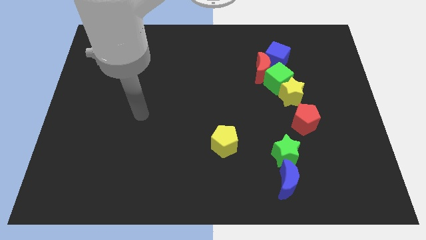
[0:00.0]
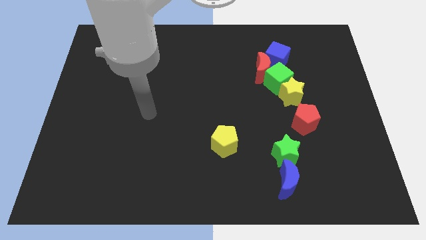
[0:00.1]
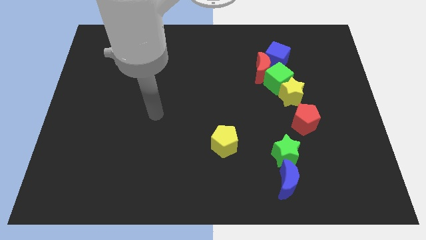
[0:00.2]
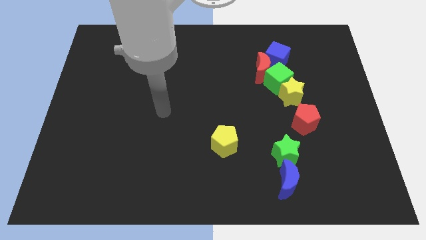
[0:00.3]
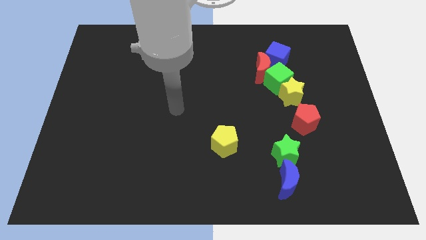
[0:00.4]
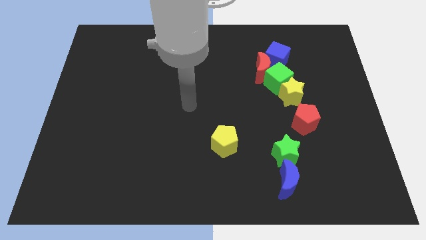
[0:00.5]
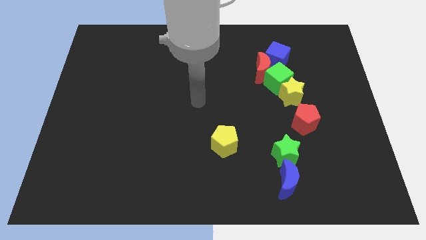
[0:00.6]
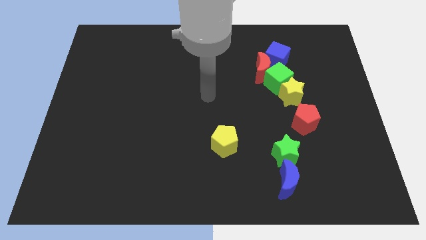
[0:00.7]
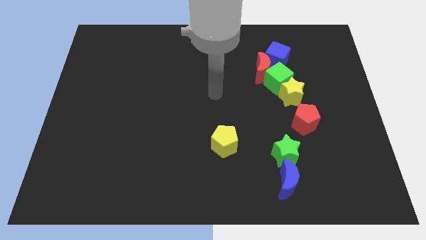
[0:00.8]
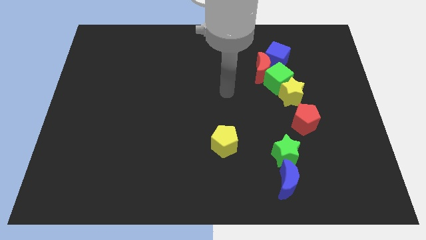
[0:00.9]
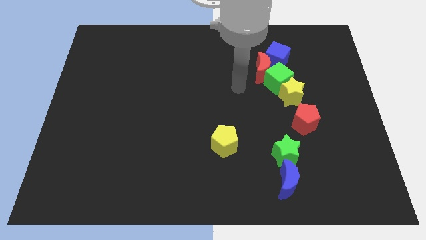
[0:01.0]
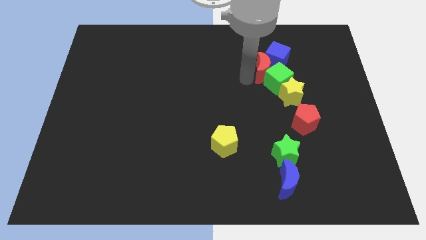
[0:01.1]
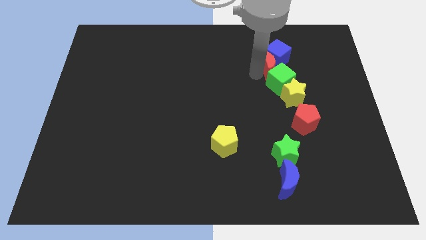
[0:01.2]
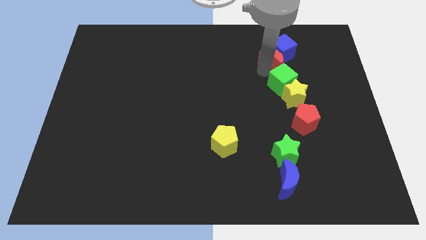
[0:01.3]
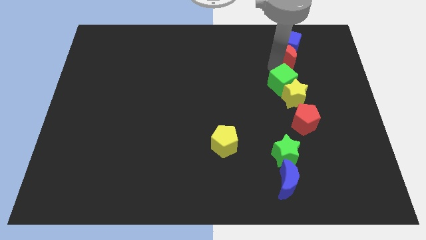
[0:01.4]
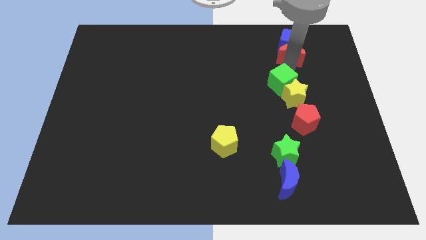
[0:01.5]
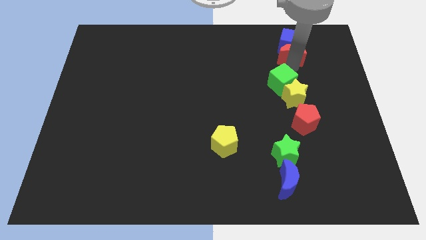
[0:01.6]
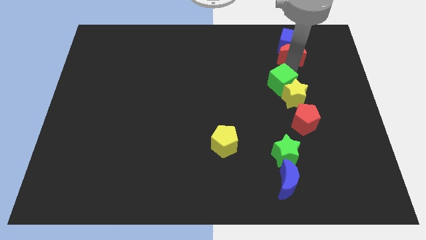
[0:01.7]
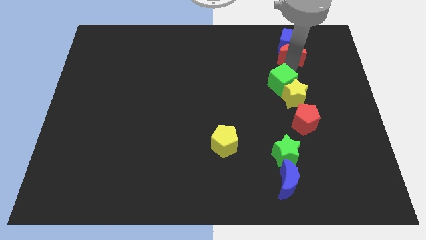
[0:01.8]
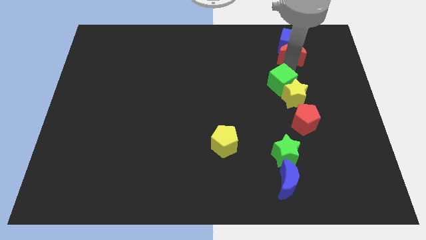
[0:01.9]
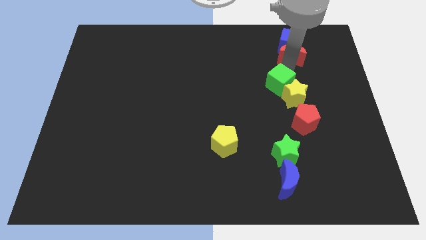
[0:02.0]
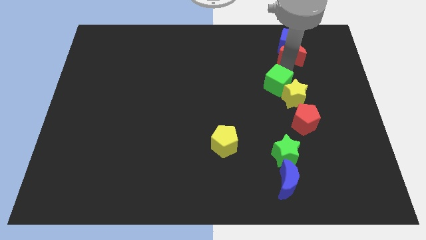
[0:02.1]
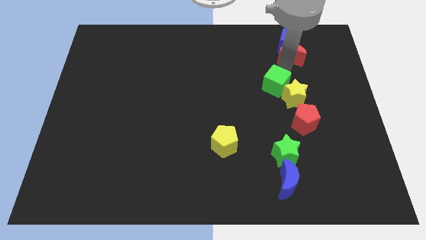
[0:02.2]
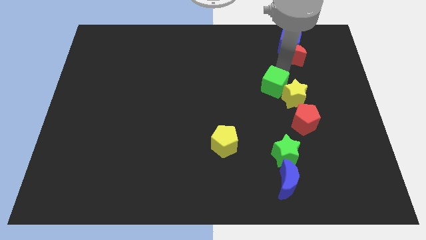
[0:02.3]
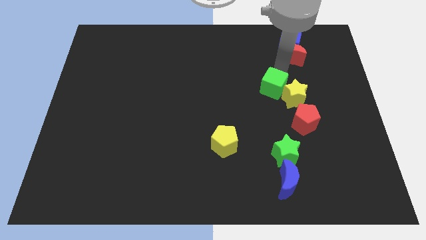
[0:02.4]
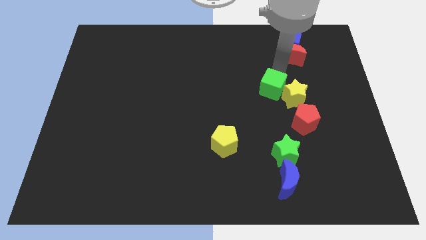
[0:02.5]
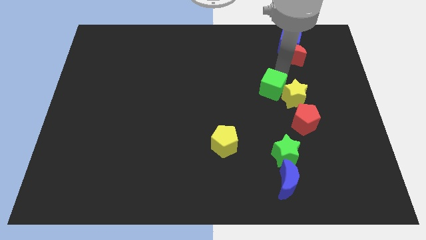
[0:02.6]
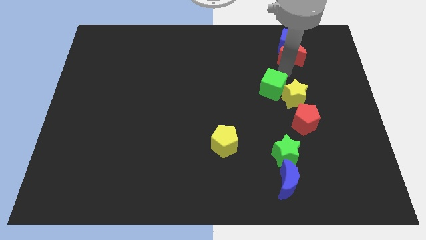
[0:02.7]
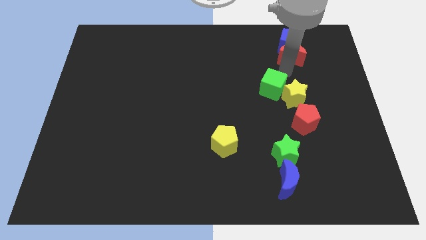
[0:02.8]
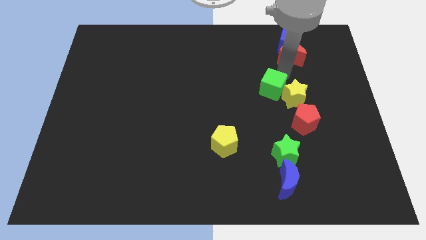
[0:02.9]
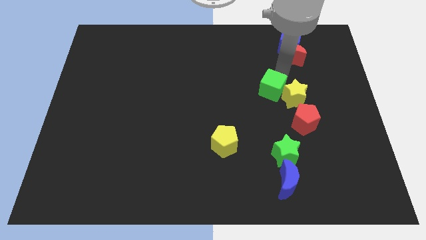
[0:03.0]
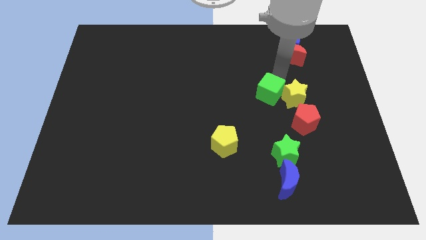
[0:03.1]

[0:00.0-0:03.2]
separate the green cube from the red moon, yellow star, and blue cube

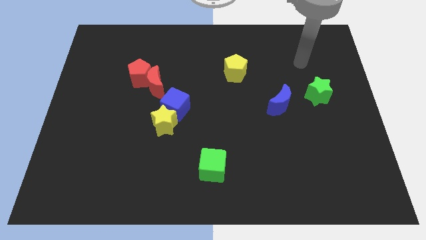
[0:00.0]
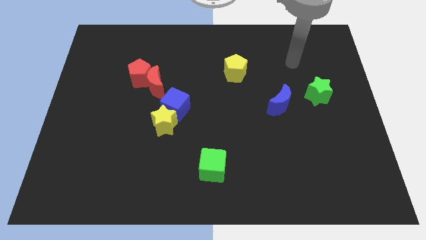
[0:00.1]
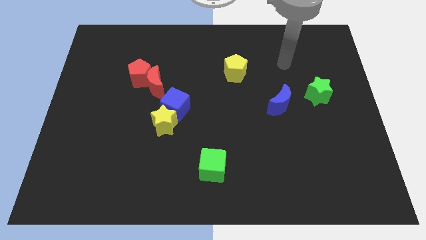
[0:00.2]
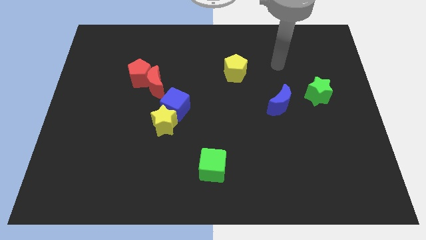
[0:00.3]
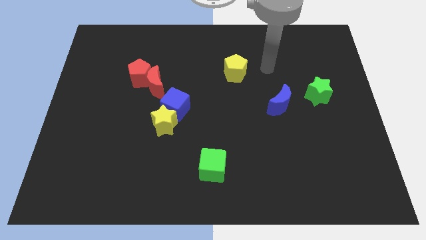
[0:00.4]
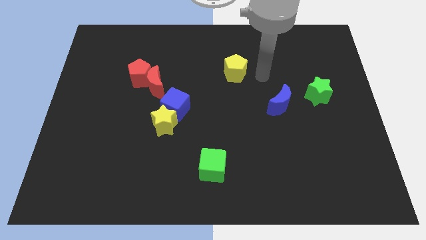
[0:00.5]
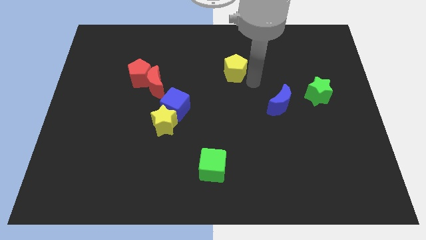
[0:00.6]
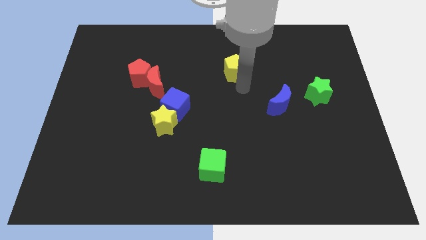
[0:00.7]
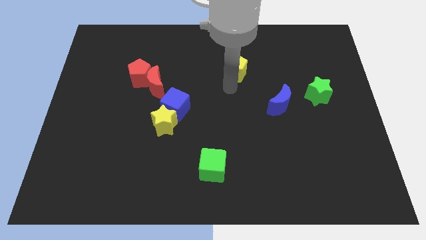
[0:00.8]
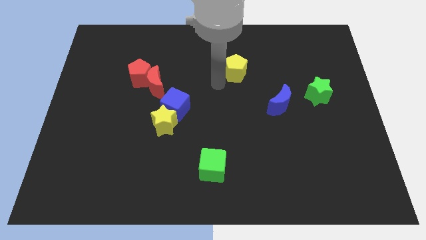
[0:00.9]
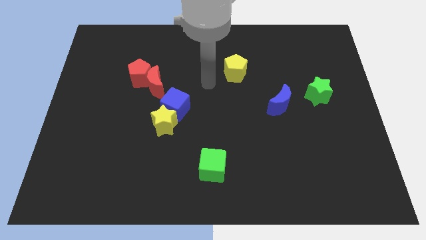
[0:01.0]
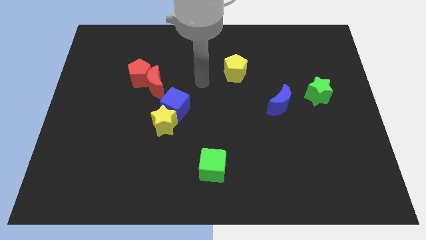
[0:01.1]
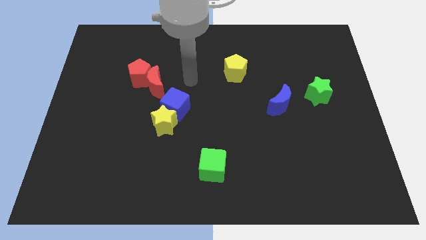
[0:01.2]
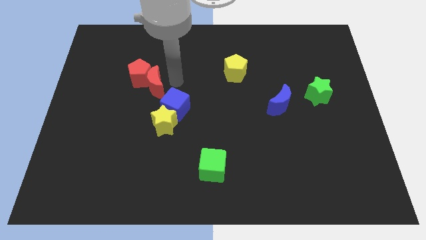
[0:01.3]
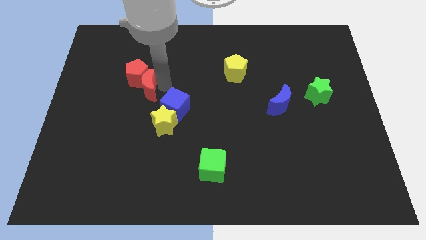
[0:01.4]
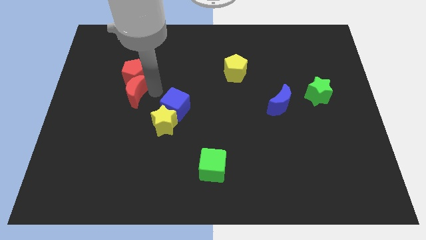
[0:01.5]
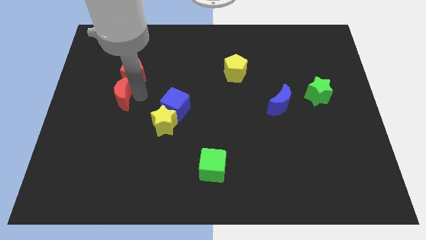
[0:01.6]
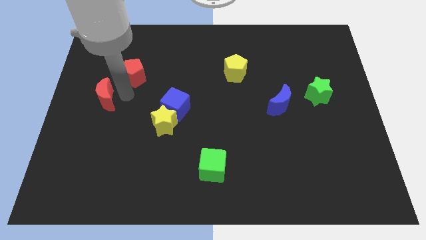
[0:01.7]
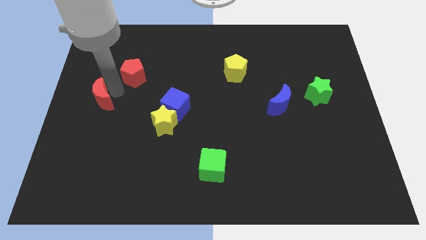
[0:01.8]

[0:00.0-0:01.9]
move the red pentagon away from the red moon

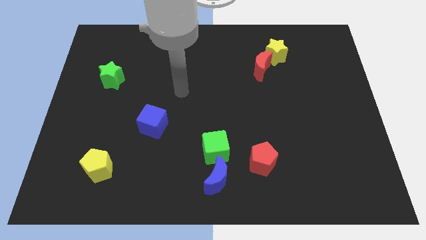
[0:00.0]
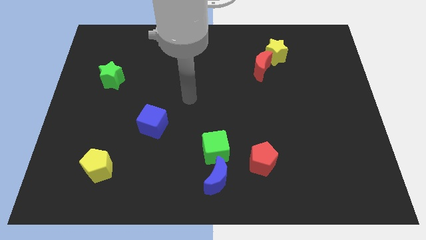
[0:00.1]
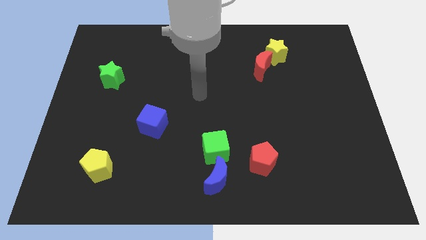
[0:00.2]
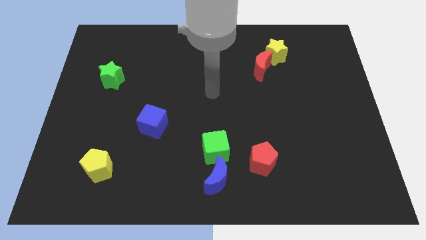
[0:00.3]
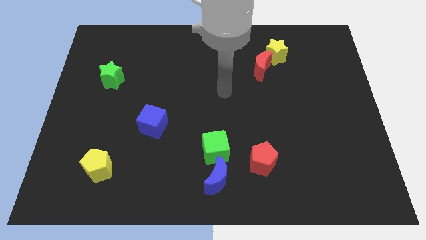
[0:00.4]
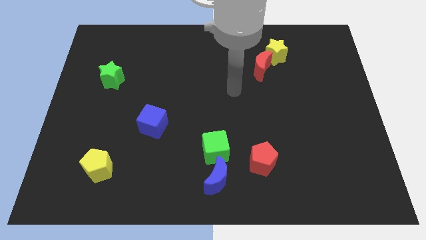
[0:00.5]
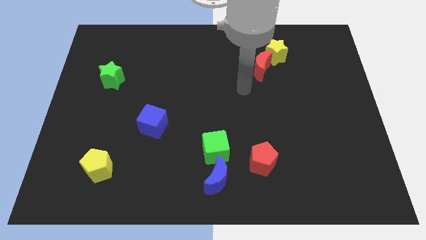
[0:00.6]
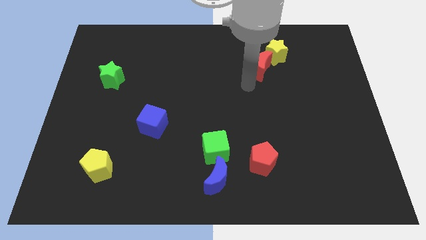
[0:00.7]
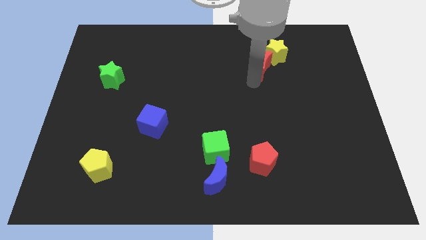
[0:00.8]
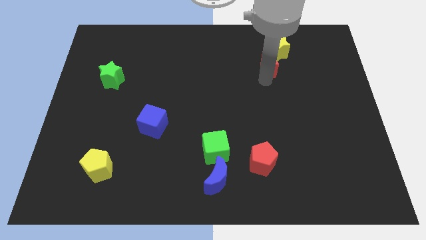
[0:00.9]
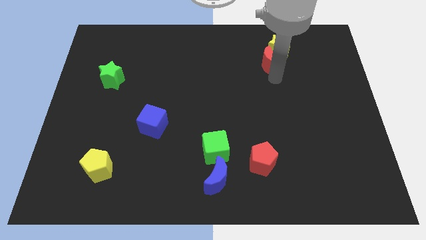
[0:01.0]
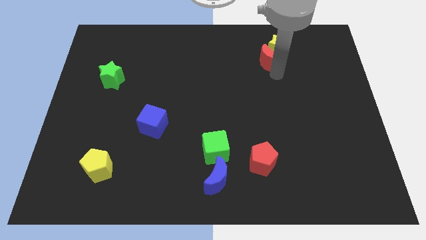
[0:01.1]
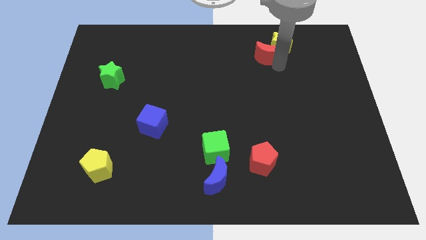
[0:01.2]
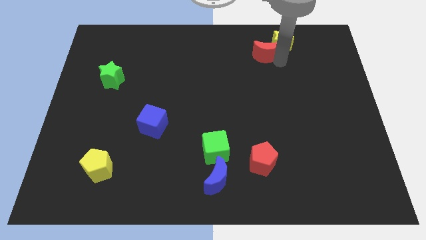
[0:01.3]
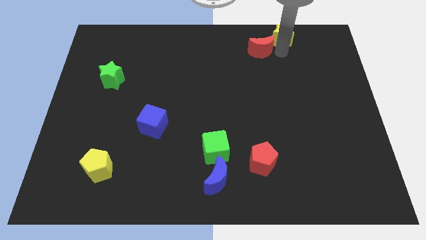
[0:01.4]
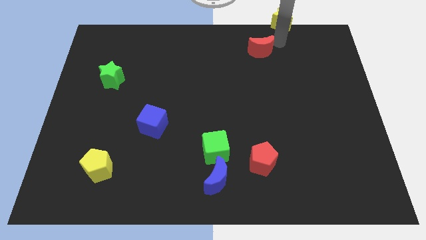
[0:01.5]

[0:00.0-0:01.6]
move the red moon away from the yellow star

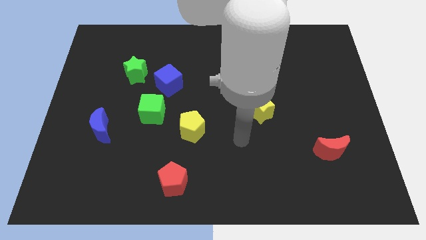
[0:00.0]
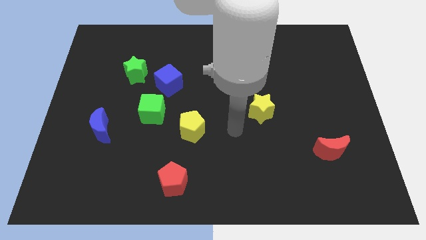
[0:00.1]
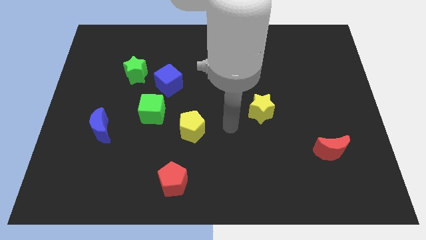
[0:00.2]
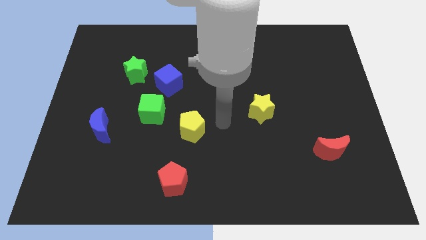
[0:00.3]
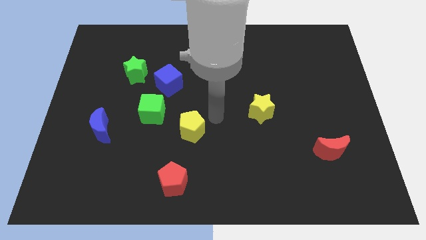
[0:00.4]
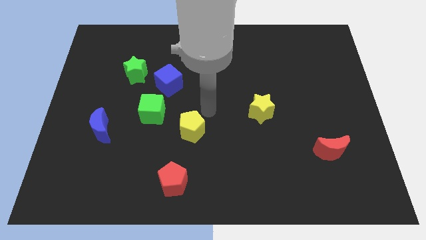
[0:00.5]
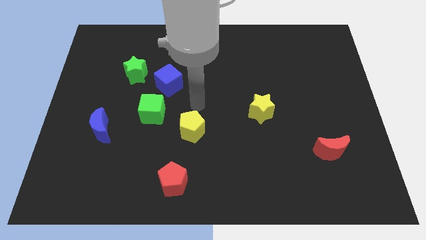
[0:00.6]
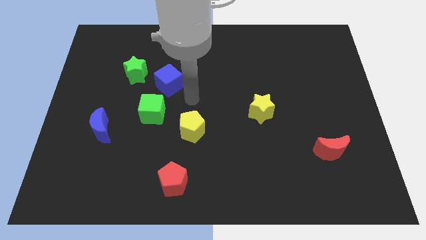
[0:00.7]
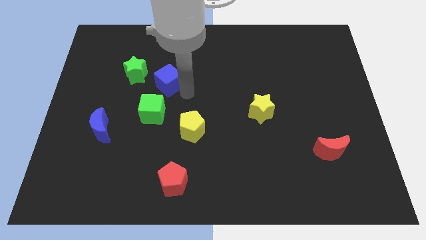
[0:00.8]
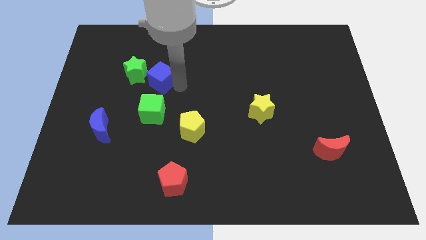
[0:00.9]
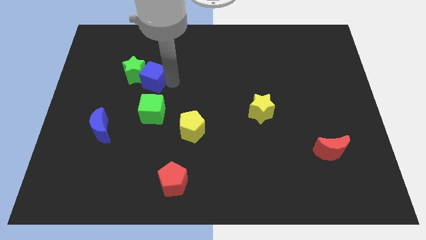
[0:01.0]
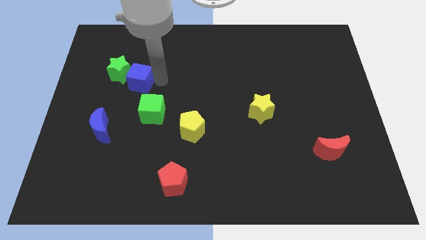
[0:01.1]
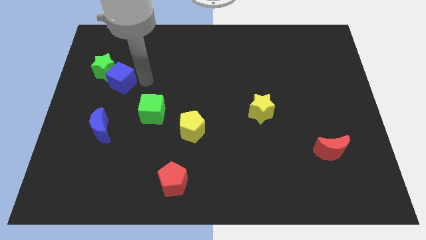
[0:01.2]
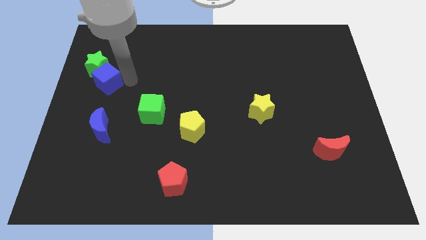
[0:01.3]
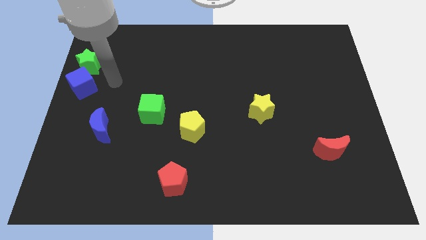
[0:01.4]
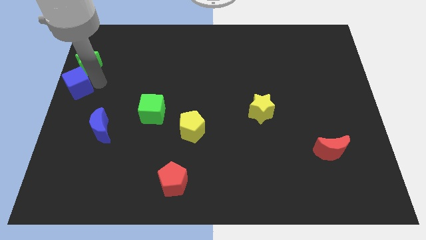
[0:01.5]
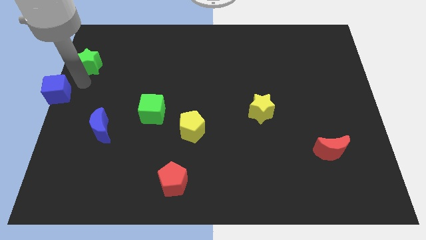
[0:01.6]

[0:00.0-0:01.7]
move the green star away from the blue cube

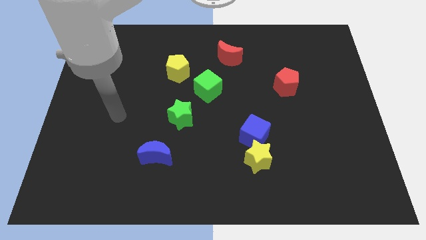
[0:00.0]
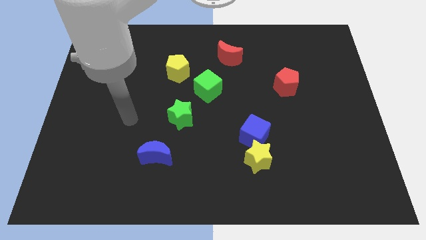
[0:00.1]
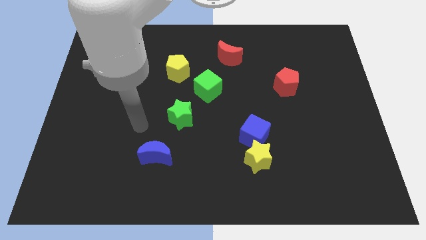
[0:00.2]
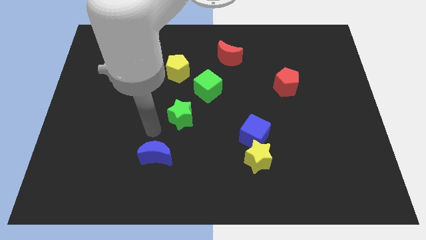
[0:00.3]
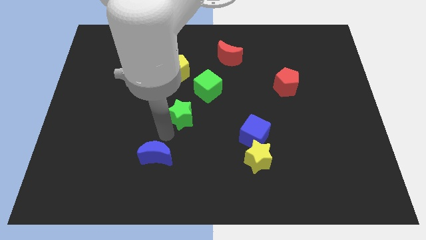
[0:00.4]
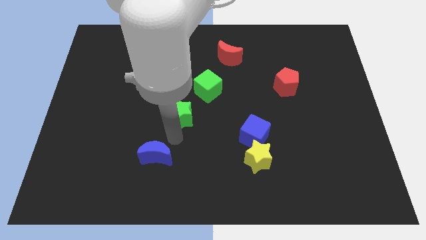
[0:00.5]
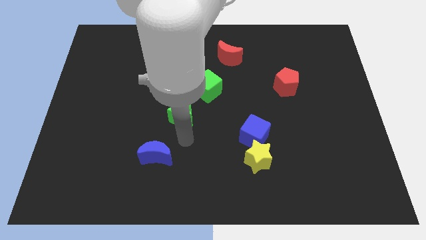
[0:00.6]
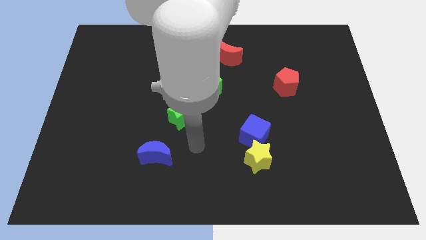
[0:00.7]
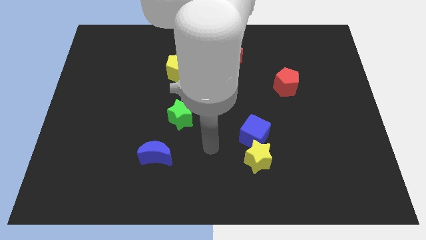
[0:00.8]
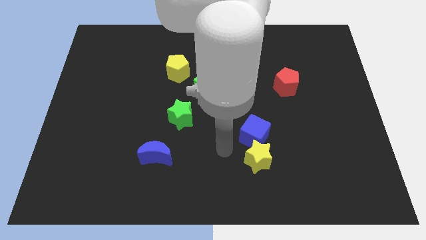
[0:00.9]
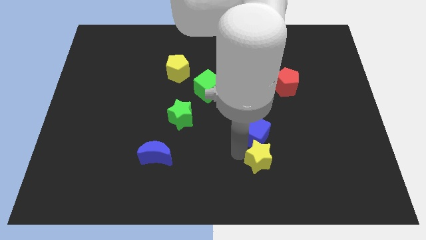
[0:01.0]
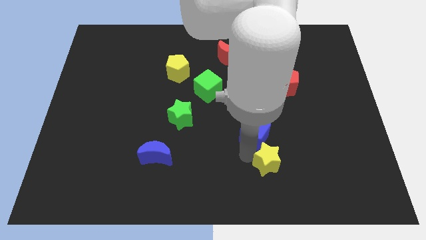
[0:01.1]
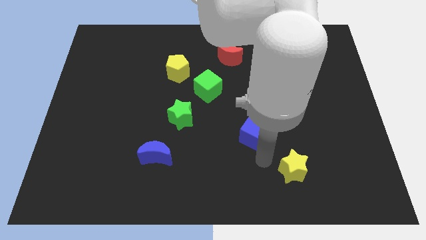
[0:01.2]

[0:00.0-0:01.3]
pull the blue cube apart from the yellow star
